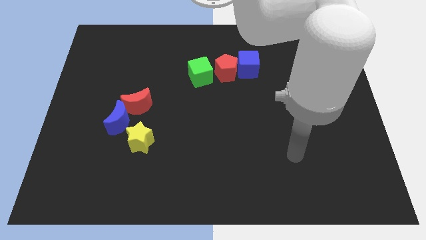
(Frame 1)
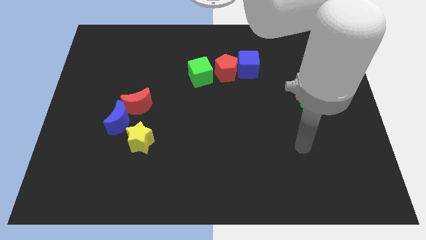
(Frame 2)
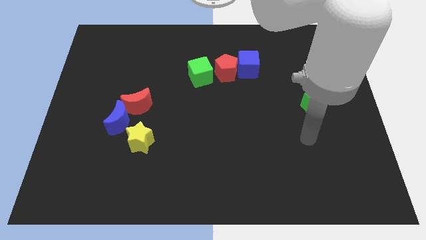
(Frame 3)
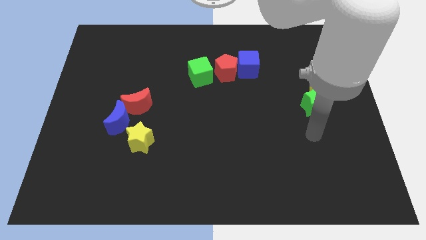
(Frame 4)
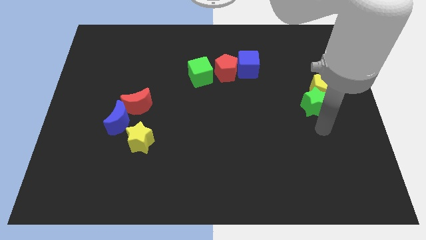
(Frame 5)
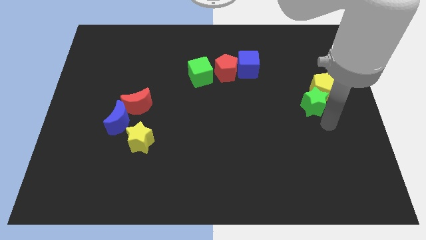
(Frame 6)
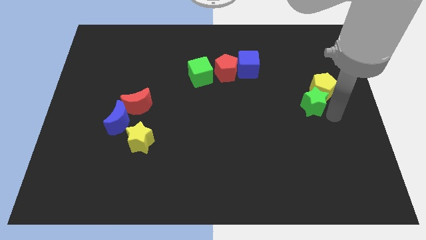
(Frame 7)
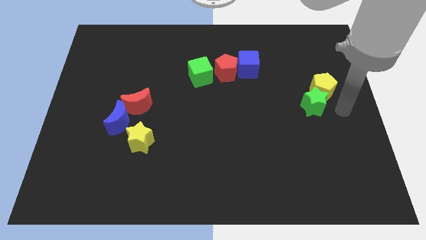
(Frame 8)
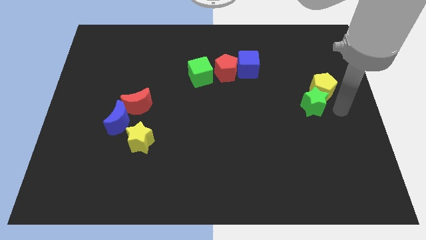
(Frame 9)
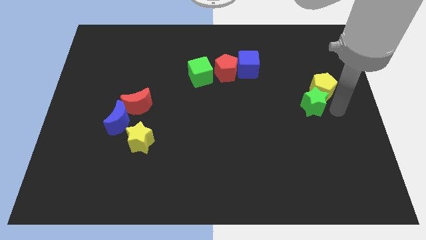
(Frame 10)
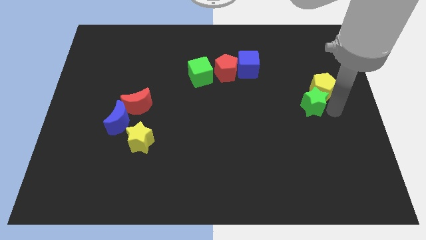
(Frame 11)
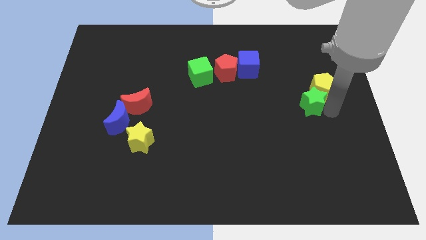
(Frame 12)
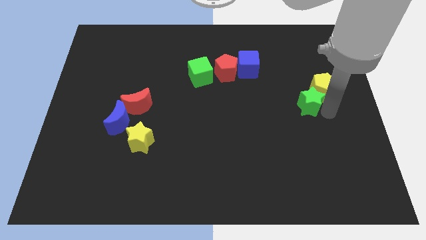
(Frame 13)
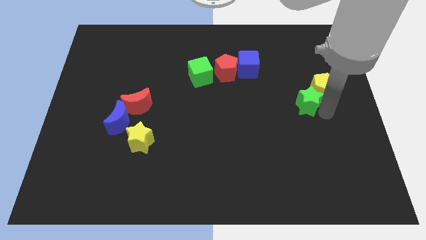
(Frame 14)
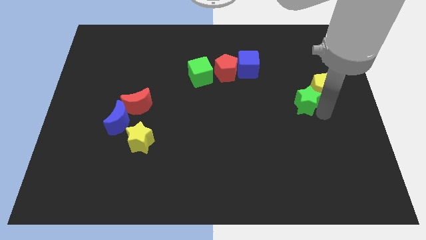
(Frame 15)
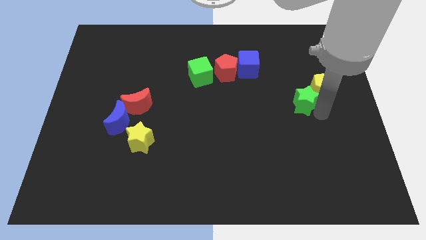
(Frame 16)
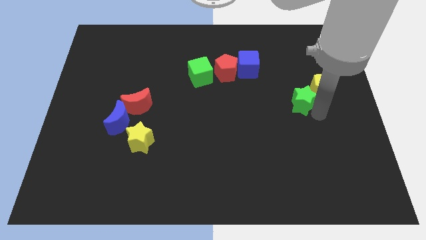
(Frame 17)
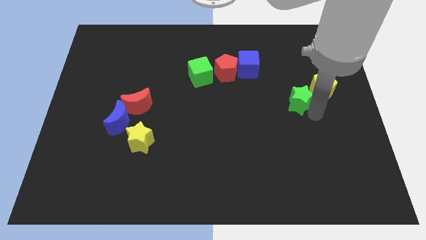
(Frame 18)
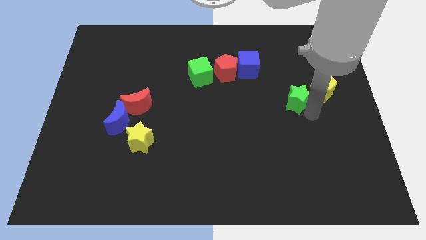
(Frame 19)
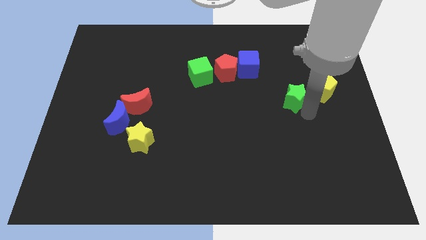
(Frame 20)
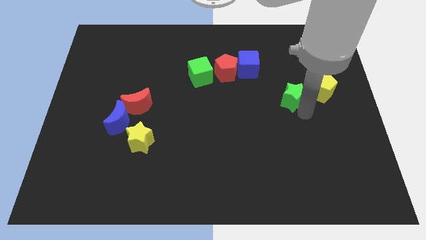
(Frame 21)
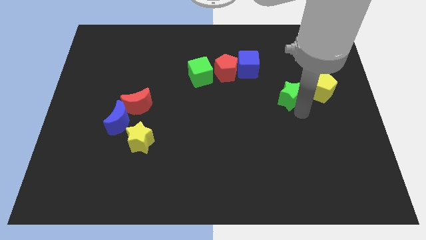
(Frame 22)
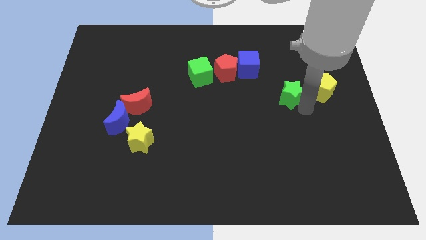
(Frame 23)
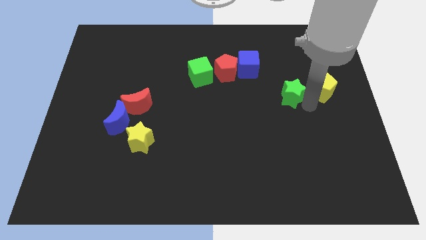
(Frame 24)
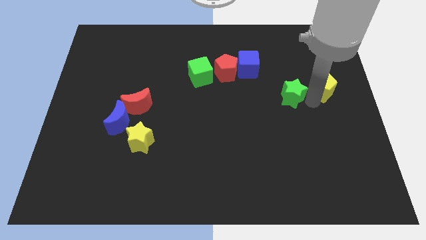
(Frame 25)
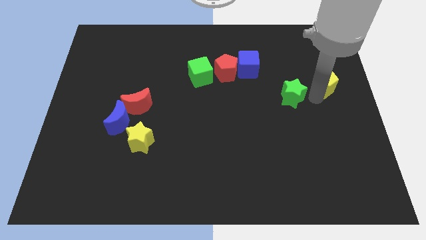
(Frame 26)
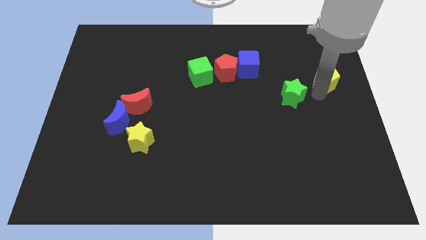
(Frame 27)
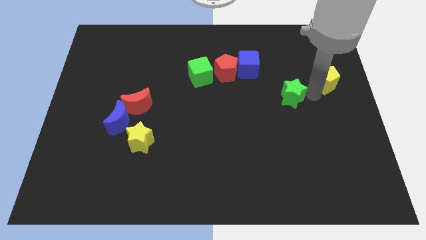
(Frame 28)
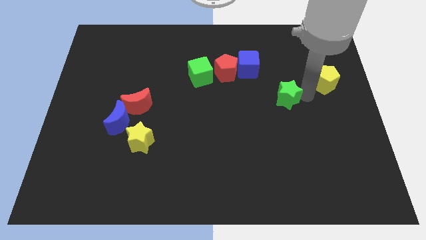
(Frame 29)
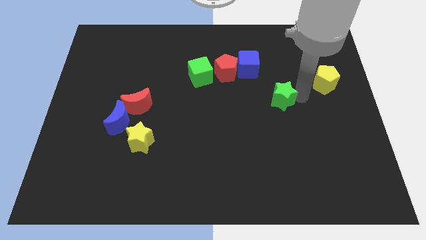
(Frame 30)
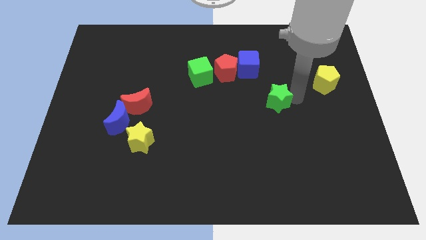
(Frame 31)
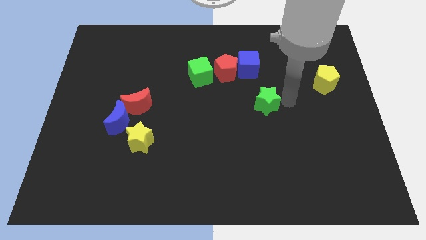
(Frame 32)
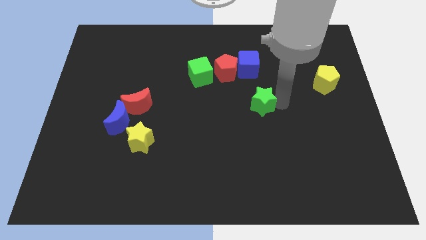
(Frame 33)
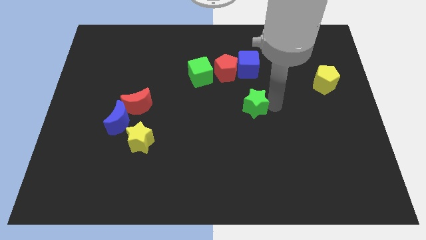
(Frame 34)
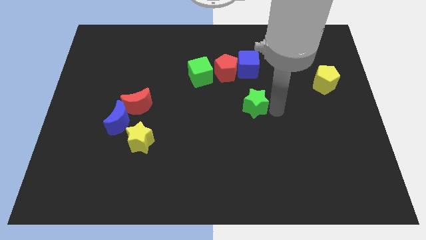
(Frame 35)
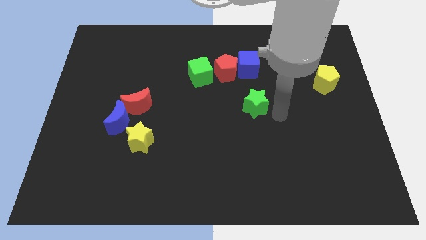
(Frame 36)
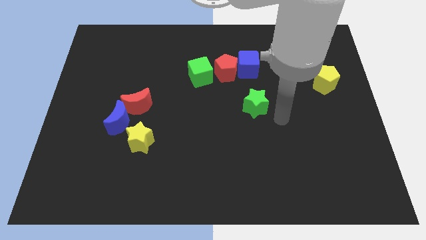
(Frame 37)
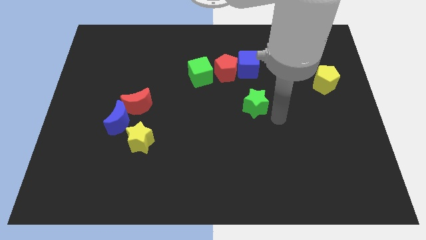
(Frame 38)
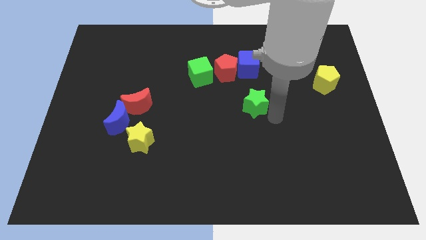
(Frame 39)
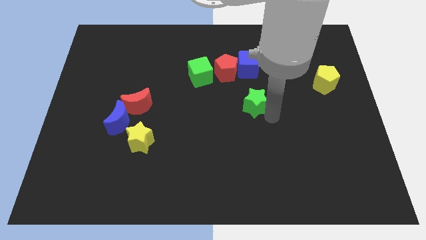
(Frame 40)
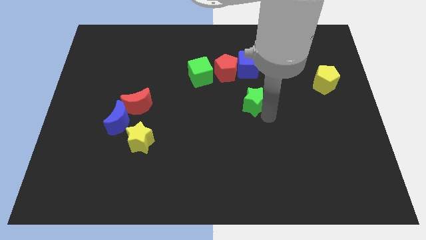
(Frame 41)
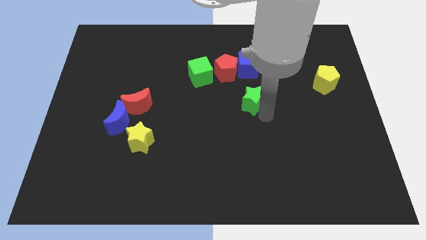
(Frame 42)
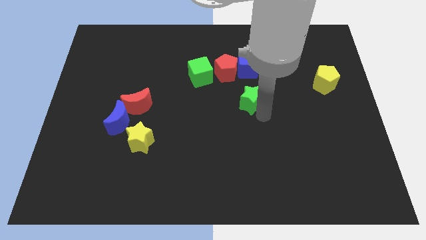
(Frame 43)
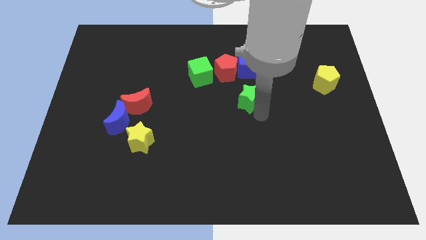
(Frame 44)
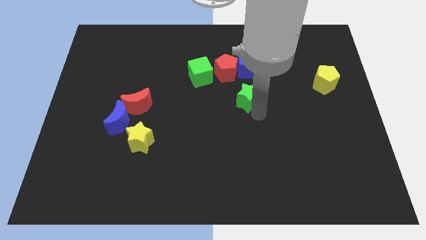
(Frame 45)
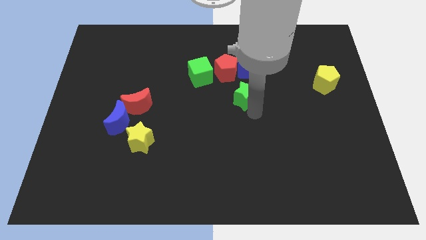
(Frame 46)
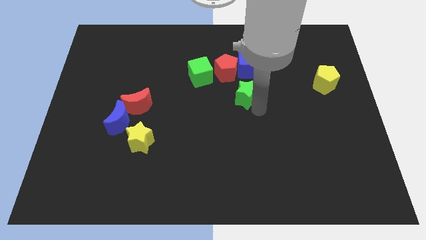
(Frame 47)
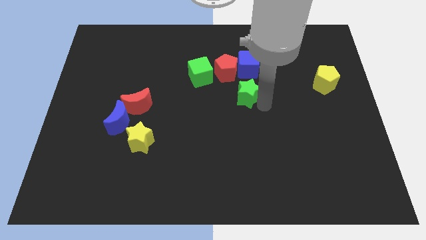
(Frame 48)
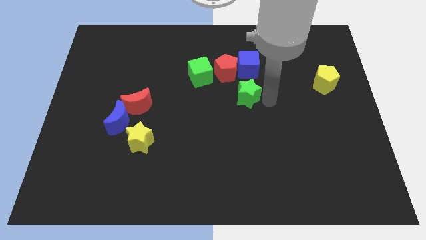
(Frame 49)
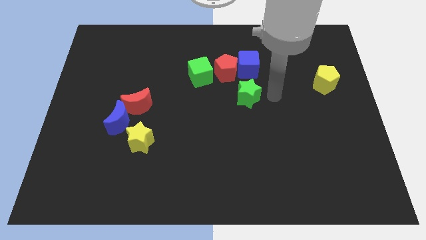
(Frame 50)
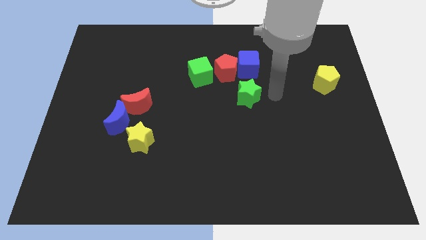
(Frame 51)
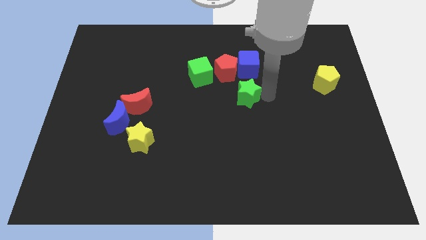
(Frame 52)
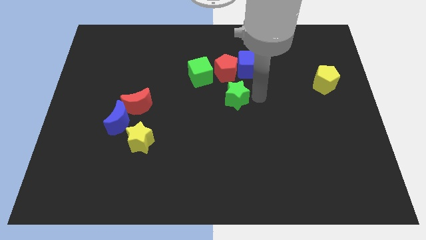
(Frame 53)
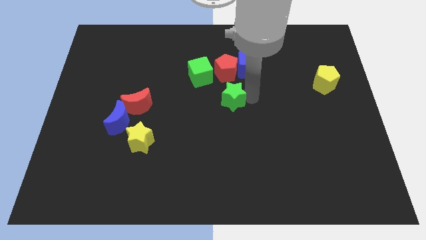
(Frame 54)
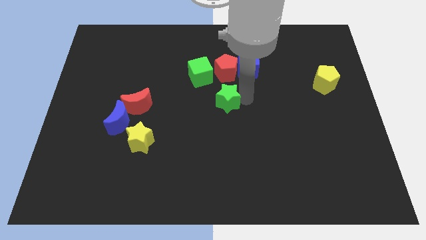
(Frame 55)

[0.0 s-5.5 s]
slide the green star to the left

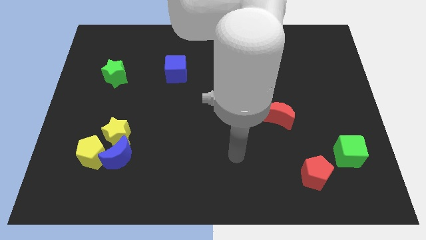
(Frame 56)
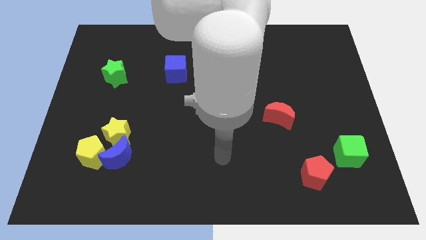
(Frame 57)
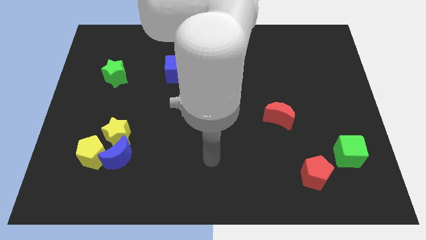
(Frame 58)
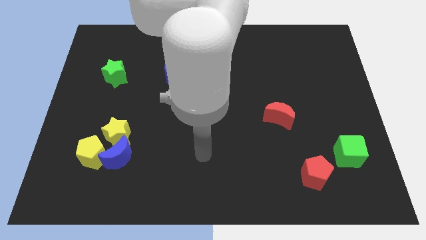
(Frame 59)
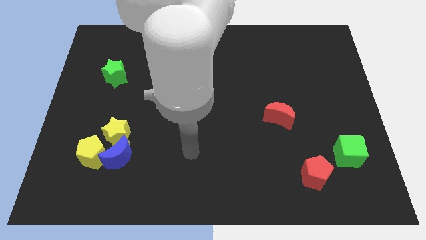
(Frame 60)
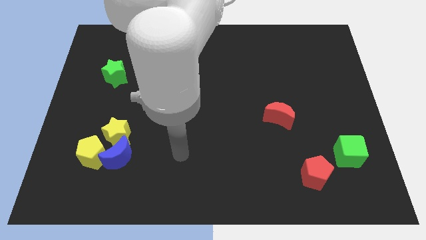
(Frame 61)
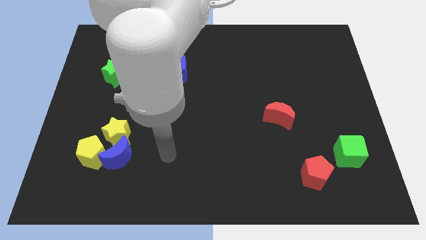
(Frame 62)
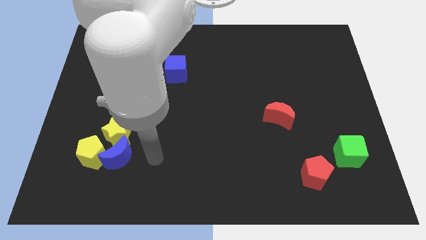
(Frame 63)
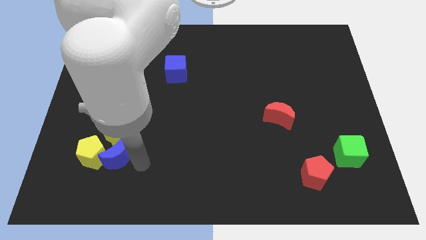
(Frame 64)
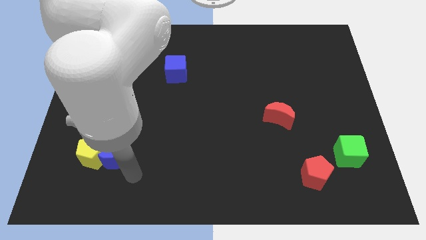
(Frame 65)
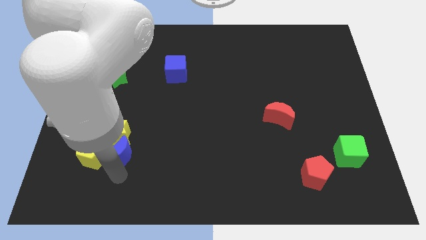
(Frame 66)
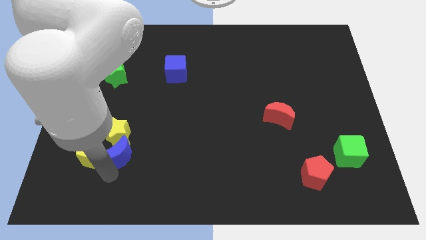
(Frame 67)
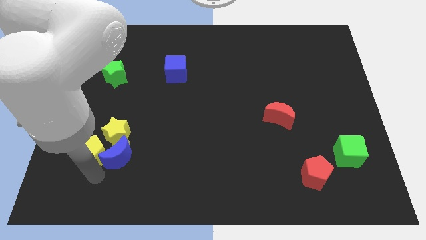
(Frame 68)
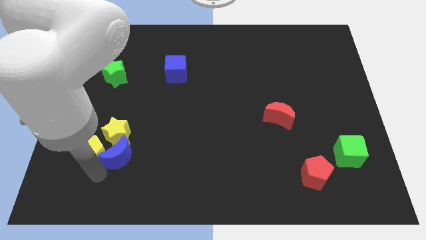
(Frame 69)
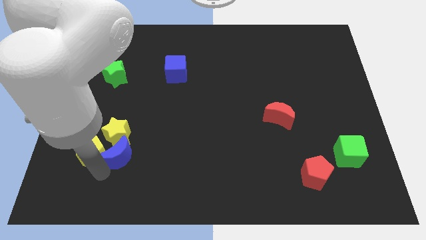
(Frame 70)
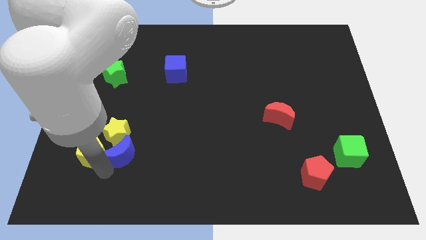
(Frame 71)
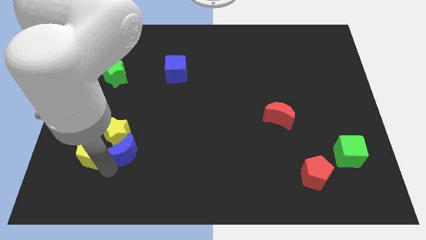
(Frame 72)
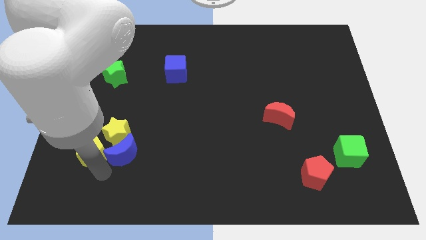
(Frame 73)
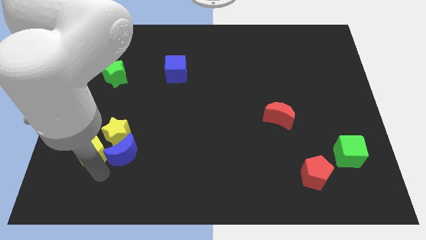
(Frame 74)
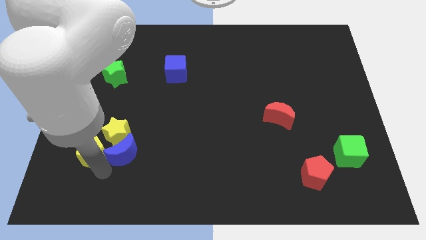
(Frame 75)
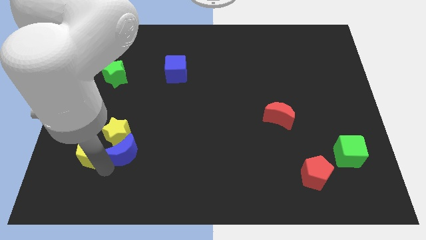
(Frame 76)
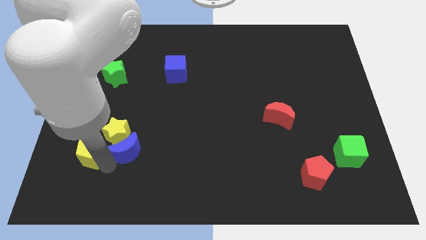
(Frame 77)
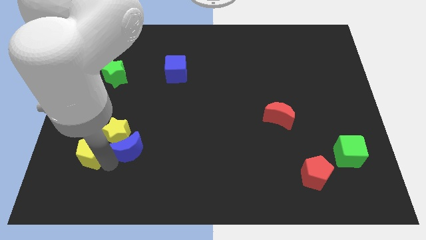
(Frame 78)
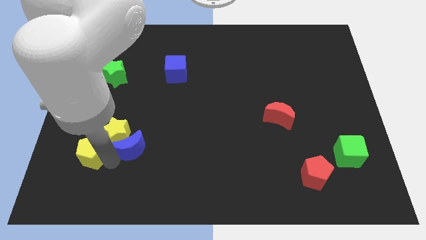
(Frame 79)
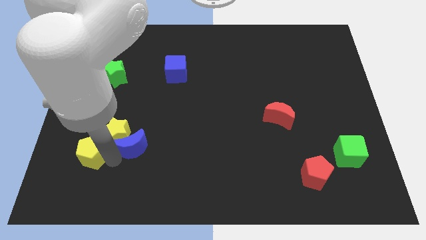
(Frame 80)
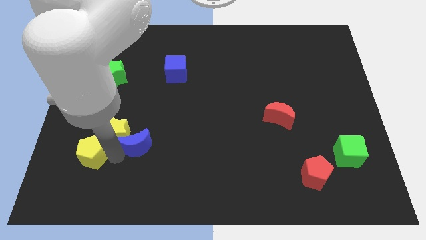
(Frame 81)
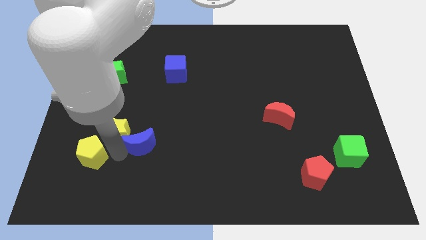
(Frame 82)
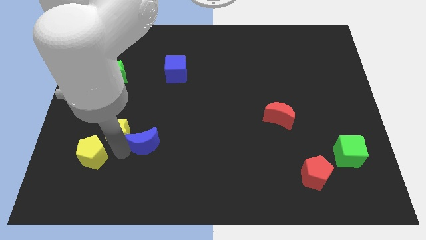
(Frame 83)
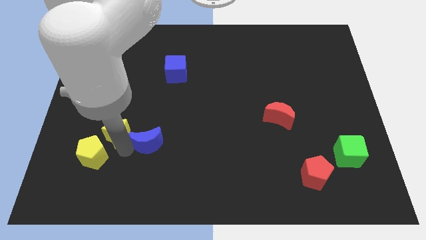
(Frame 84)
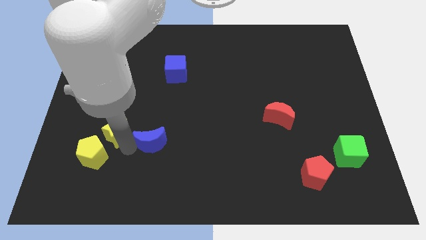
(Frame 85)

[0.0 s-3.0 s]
push the blue moon a little bit upwards and right diagonally
